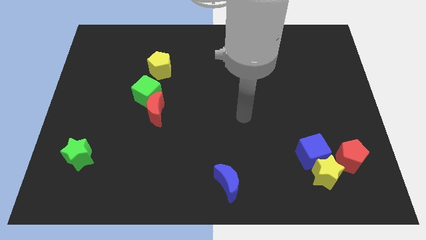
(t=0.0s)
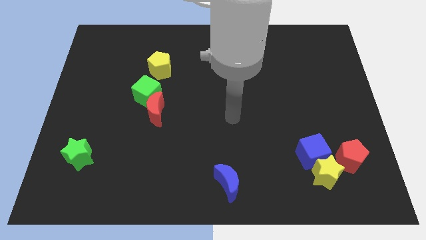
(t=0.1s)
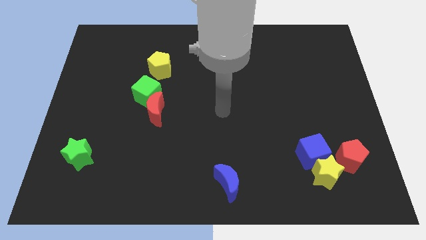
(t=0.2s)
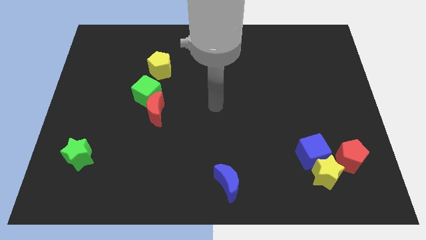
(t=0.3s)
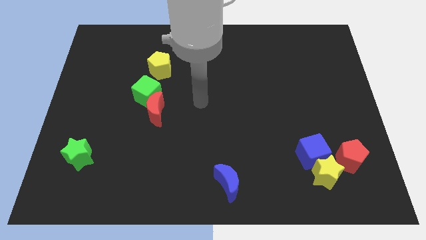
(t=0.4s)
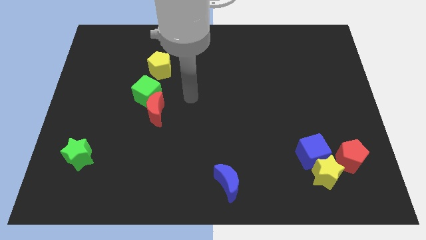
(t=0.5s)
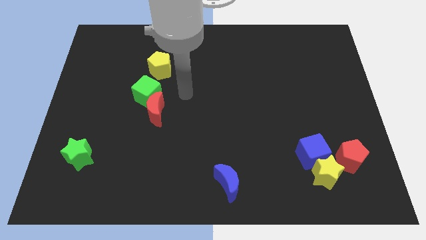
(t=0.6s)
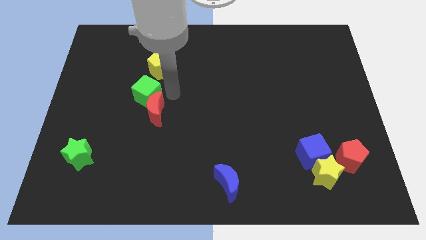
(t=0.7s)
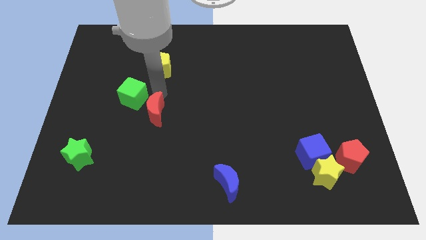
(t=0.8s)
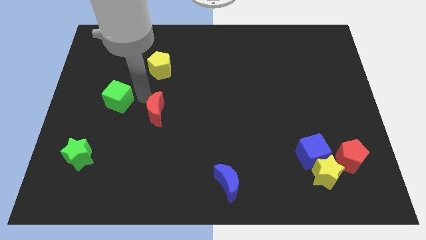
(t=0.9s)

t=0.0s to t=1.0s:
pull the red moon apart from the green cube

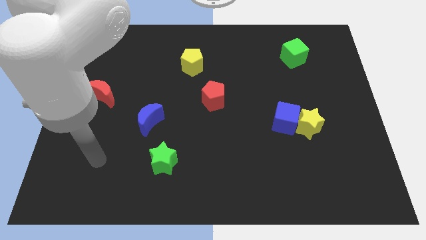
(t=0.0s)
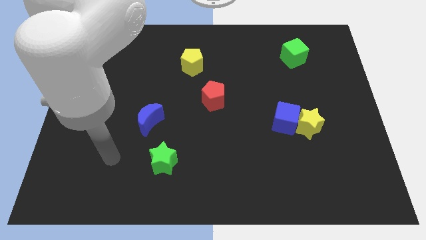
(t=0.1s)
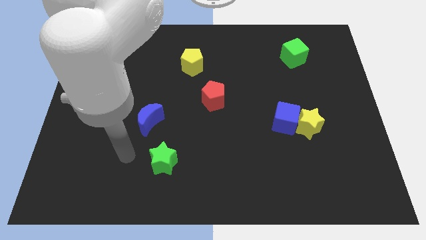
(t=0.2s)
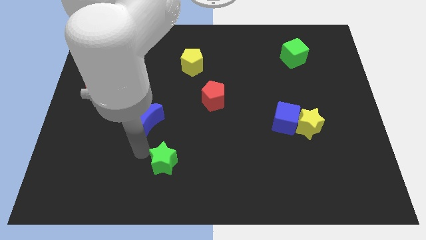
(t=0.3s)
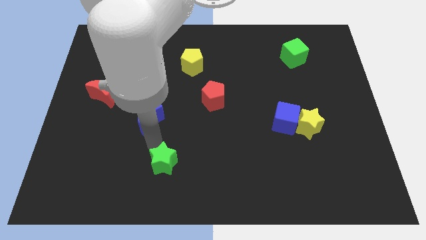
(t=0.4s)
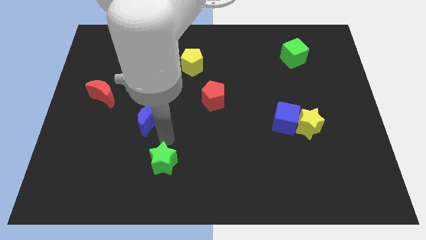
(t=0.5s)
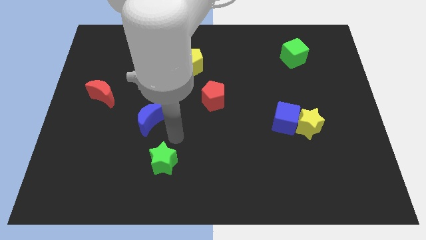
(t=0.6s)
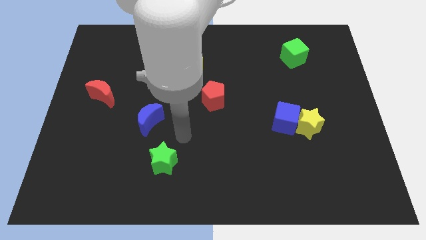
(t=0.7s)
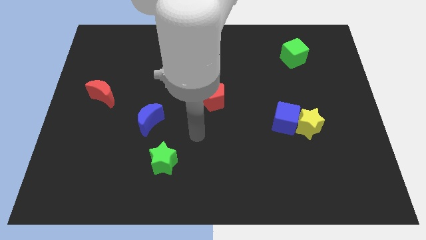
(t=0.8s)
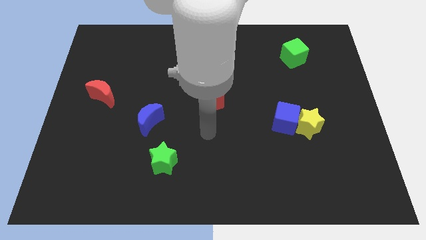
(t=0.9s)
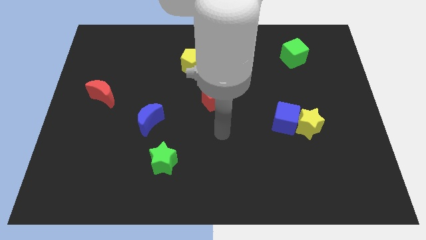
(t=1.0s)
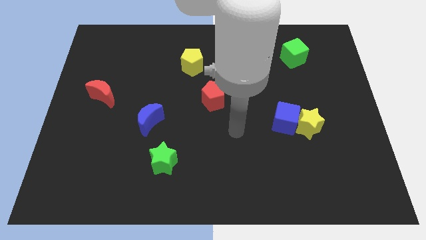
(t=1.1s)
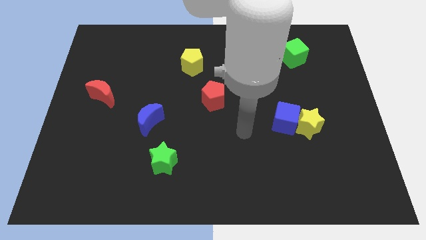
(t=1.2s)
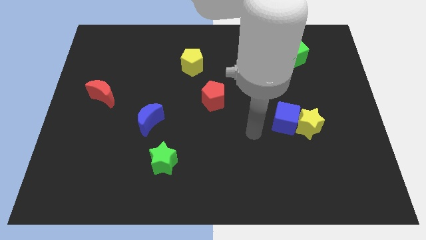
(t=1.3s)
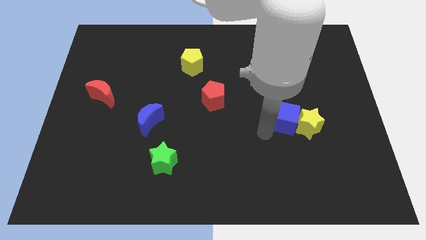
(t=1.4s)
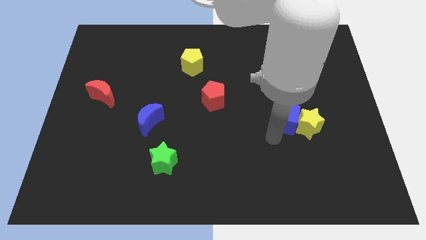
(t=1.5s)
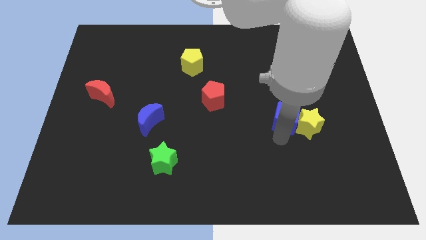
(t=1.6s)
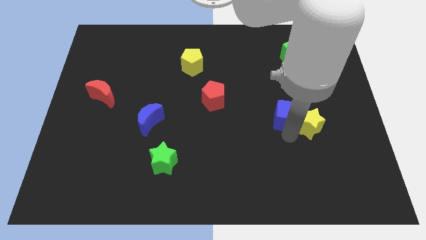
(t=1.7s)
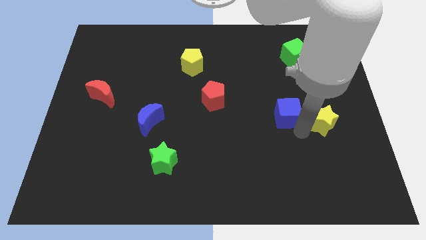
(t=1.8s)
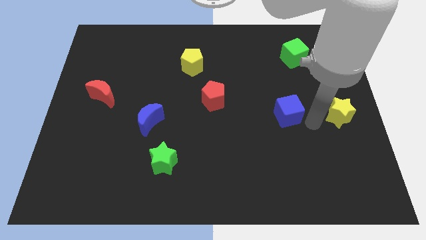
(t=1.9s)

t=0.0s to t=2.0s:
move the blue cube away from the yellow star

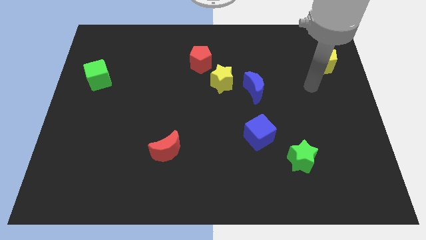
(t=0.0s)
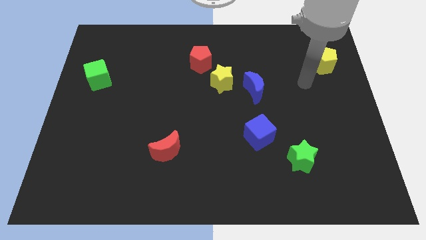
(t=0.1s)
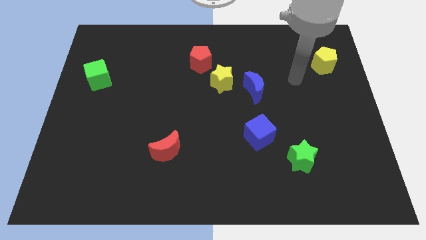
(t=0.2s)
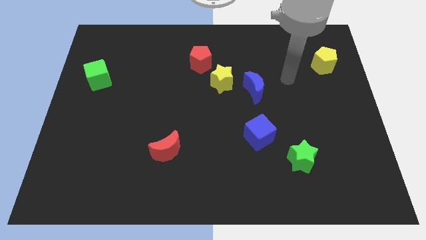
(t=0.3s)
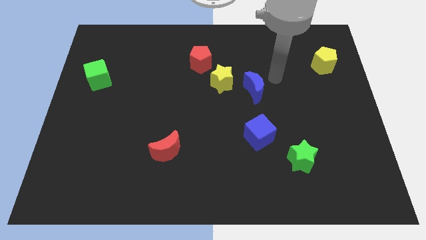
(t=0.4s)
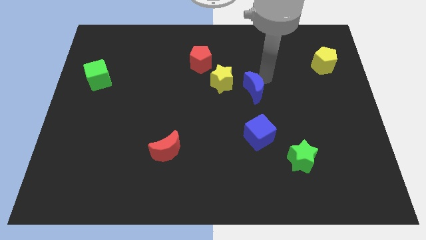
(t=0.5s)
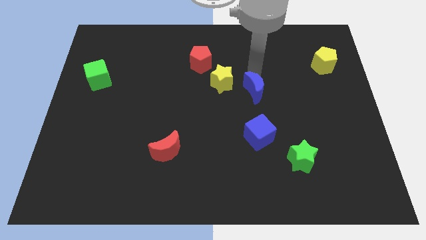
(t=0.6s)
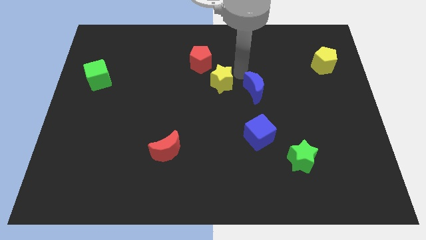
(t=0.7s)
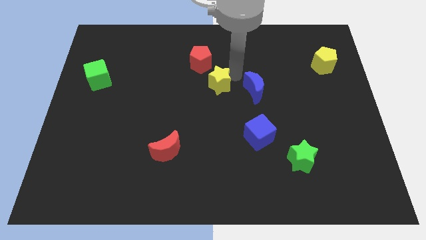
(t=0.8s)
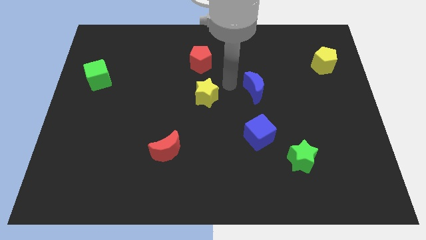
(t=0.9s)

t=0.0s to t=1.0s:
move the blue moon away from the yellow star

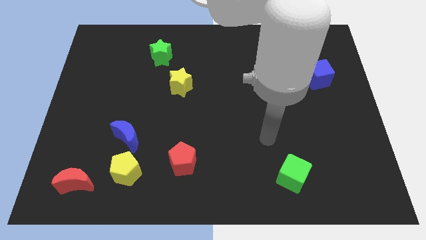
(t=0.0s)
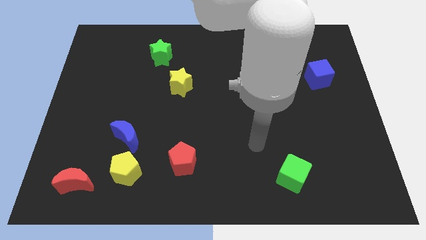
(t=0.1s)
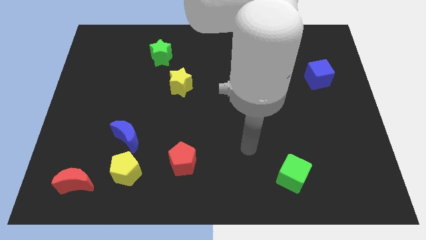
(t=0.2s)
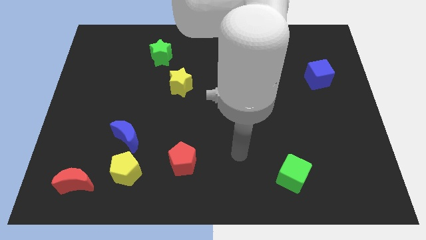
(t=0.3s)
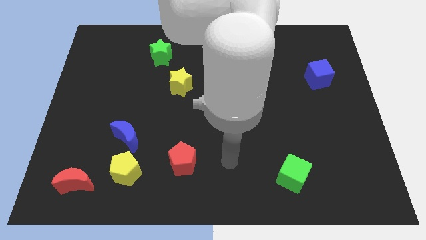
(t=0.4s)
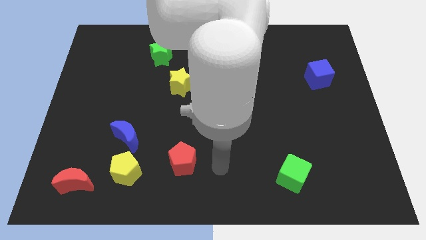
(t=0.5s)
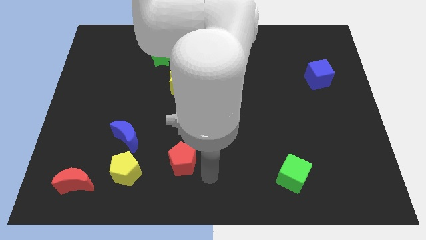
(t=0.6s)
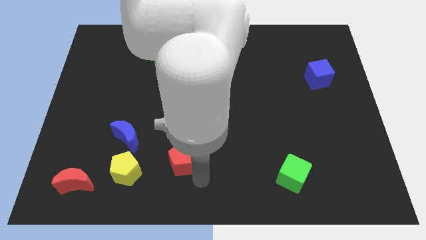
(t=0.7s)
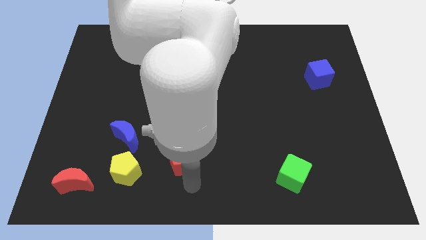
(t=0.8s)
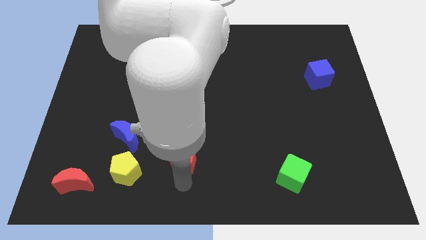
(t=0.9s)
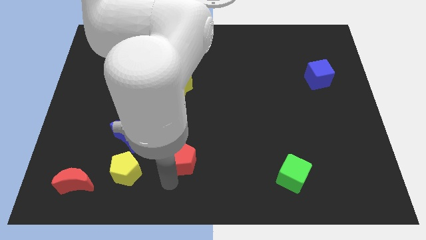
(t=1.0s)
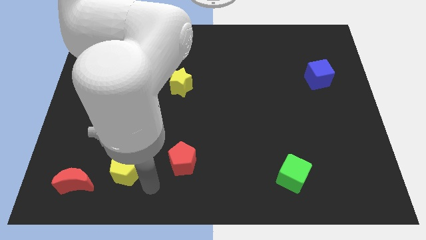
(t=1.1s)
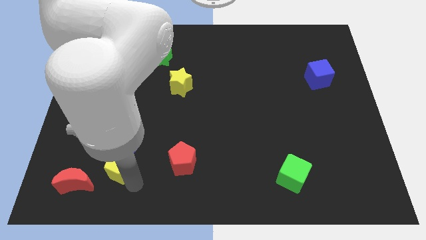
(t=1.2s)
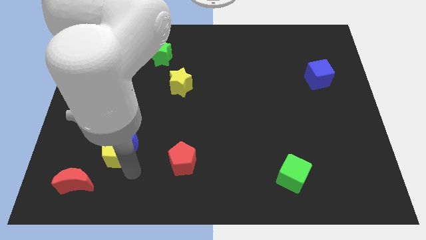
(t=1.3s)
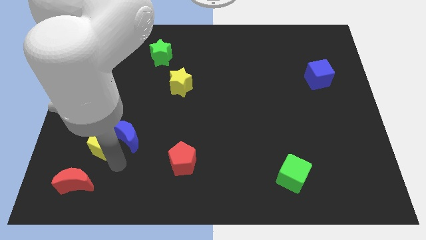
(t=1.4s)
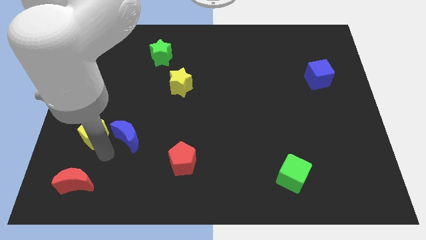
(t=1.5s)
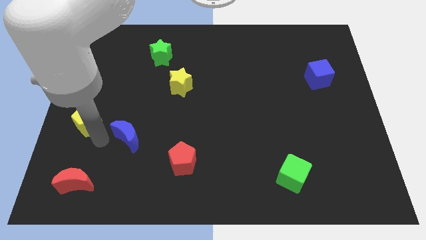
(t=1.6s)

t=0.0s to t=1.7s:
move the blue moon away from the yellow pentagon

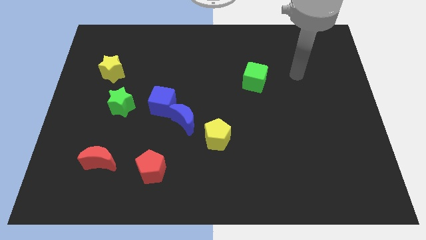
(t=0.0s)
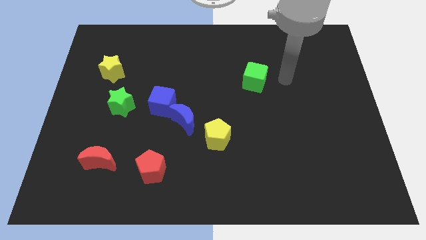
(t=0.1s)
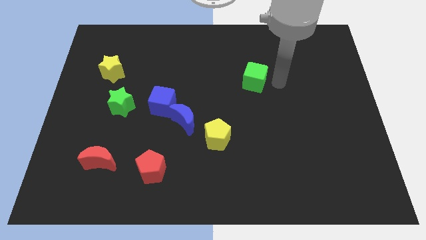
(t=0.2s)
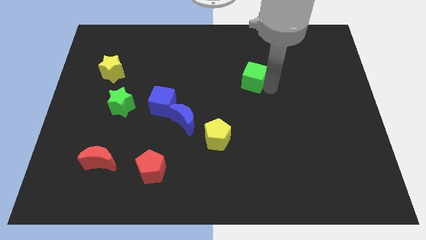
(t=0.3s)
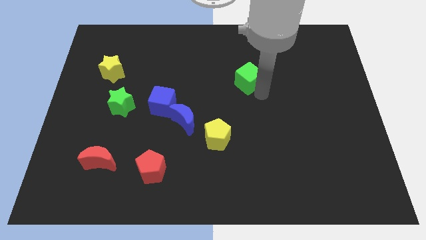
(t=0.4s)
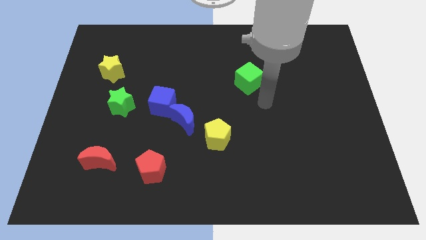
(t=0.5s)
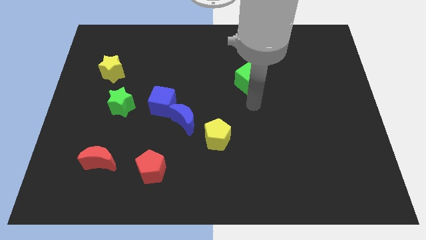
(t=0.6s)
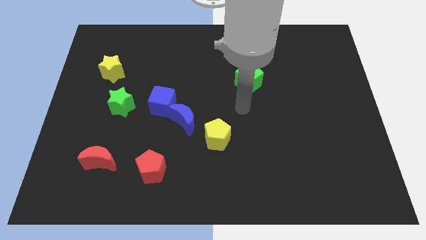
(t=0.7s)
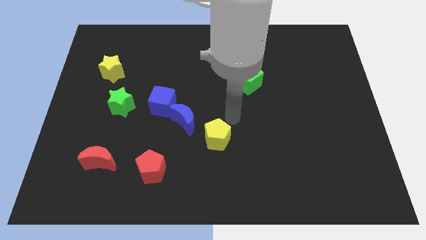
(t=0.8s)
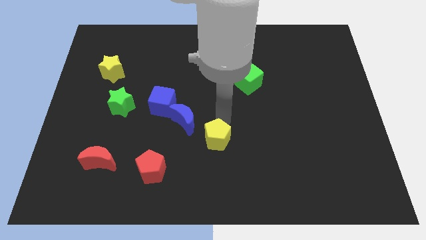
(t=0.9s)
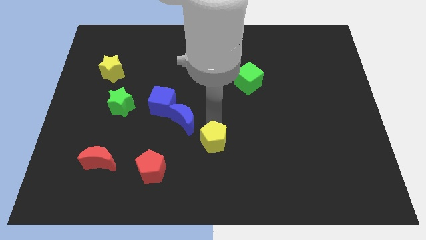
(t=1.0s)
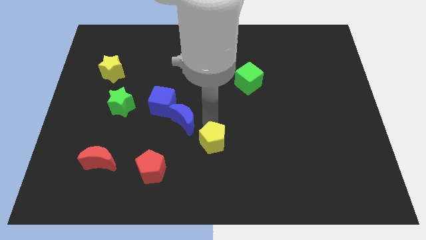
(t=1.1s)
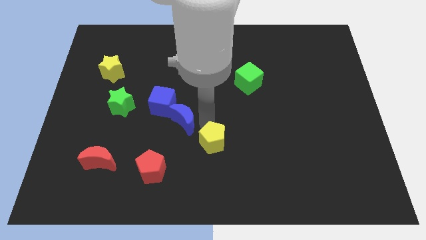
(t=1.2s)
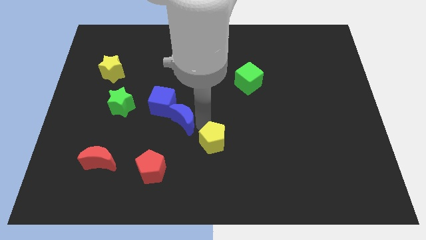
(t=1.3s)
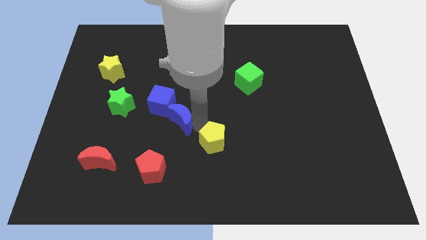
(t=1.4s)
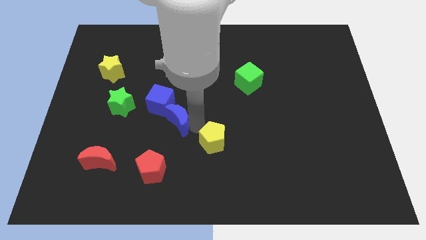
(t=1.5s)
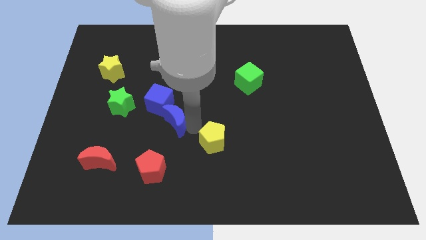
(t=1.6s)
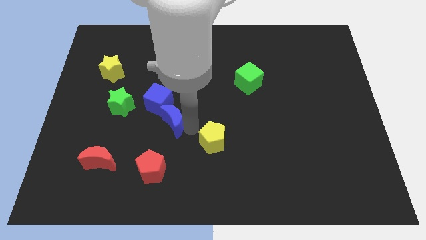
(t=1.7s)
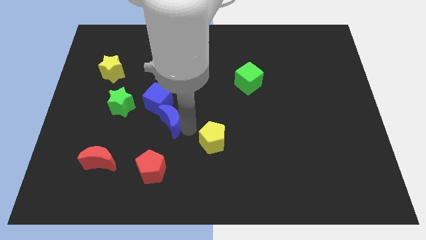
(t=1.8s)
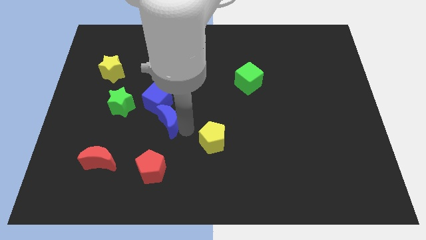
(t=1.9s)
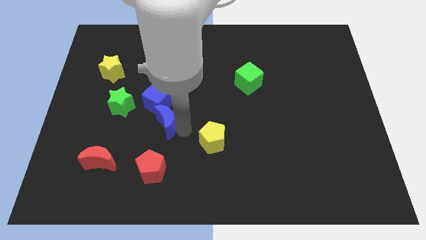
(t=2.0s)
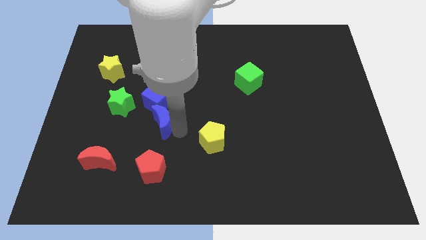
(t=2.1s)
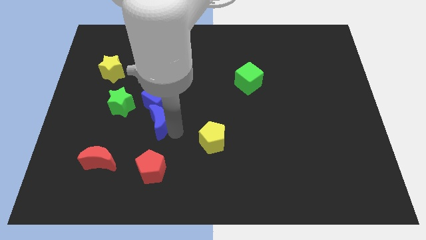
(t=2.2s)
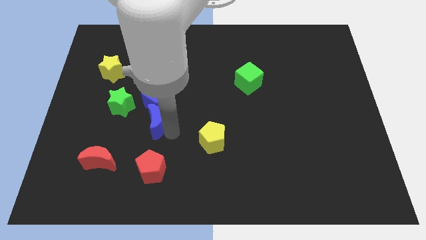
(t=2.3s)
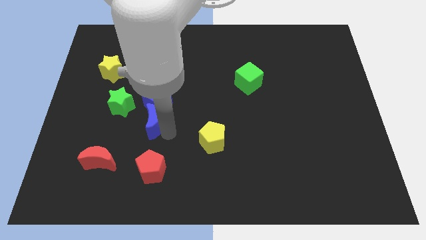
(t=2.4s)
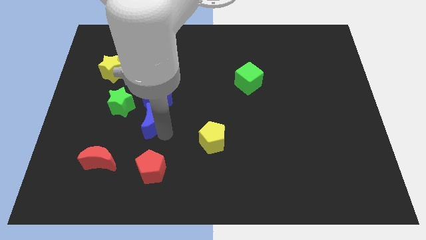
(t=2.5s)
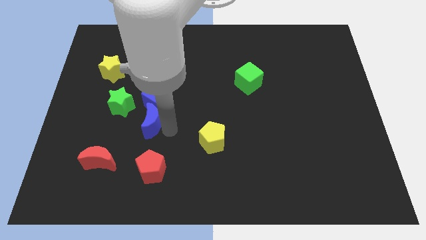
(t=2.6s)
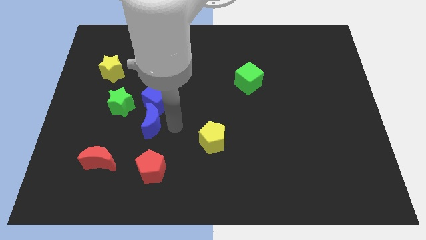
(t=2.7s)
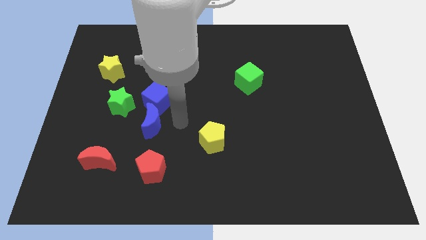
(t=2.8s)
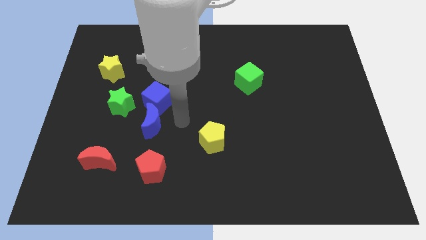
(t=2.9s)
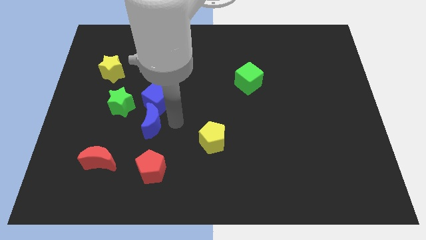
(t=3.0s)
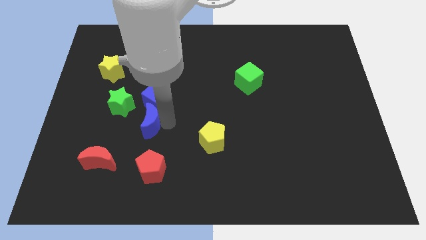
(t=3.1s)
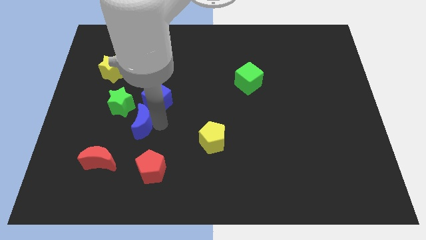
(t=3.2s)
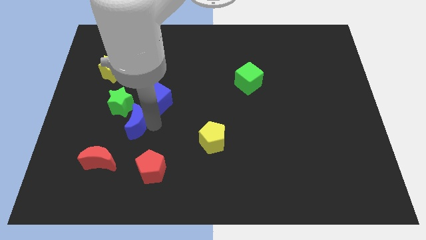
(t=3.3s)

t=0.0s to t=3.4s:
separate the blue moon from the blue cube and yellow pentagon
